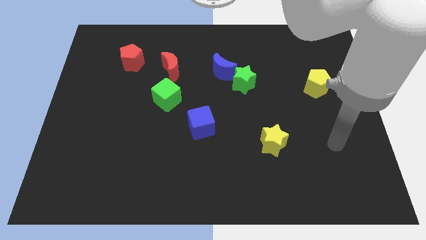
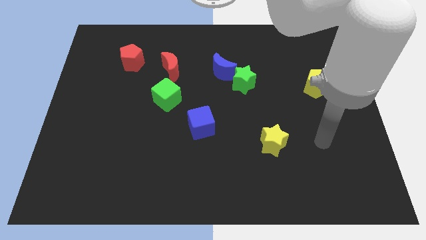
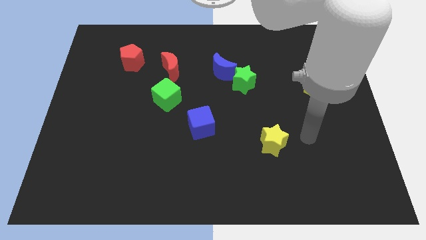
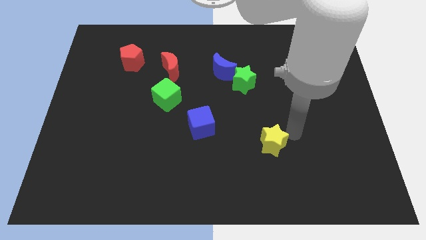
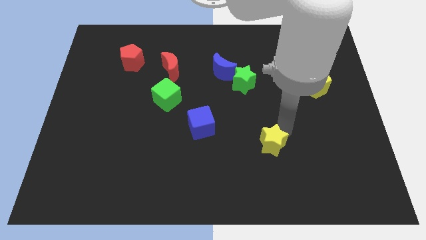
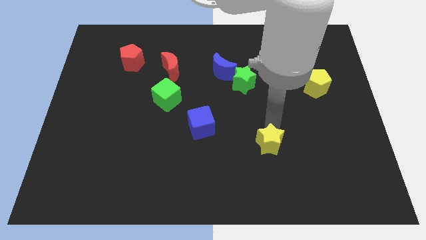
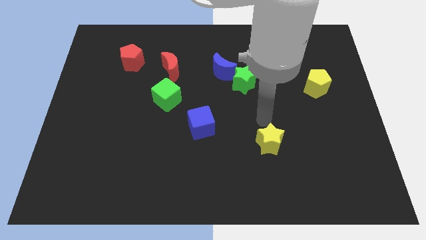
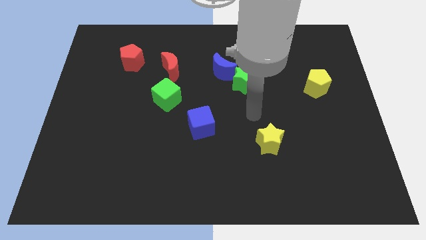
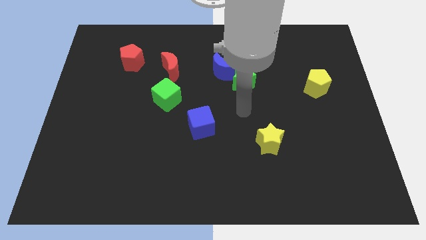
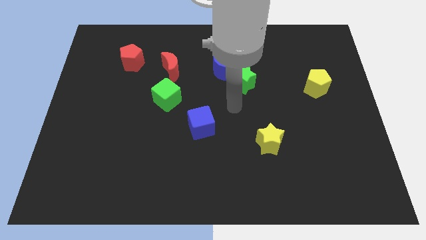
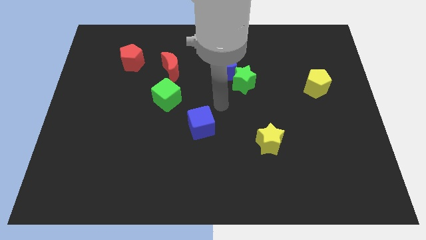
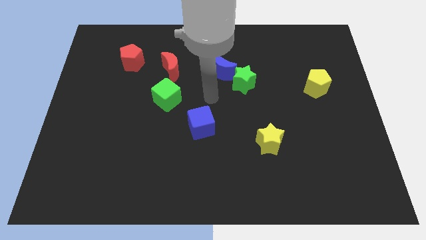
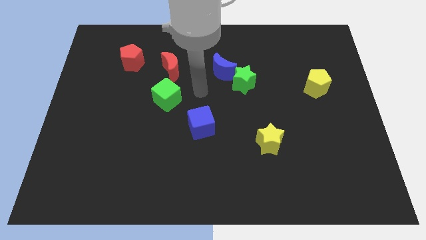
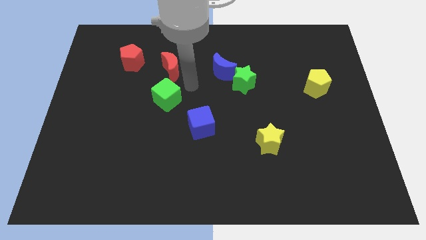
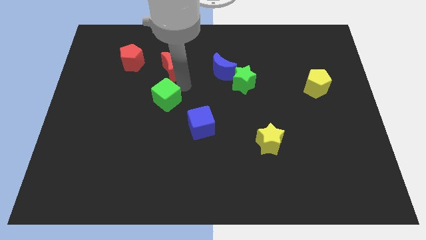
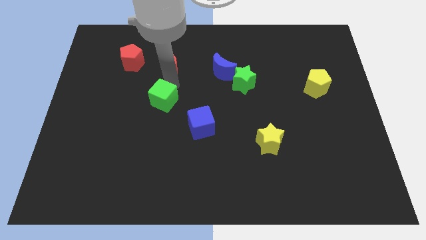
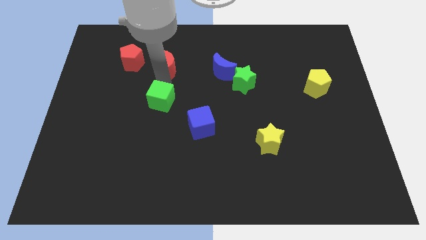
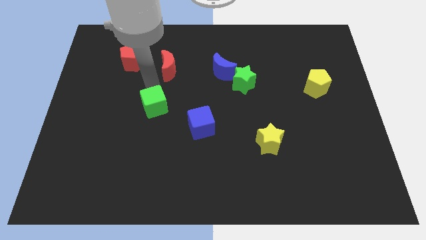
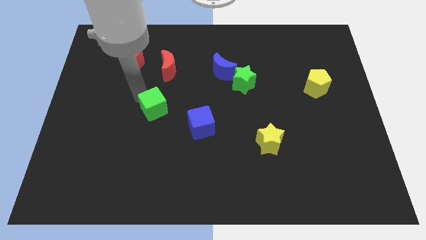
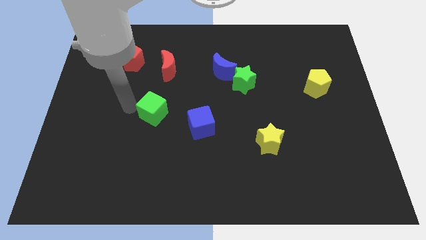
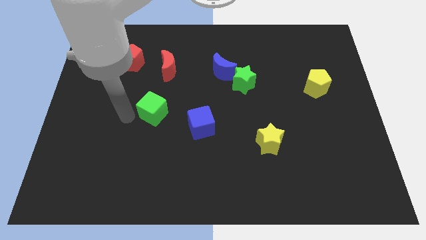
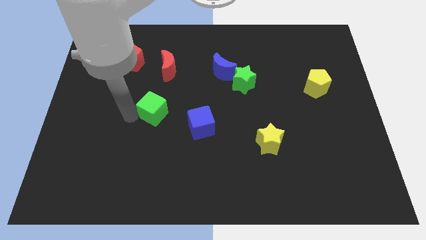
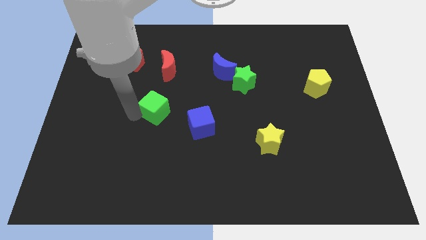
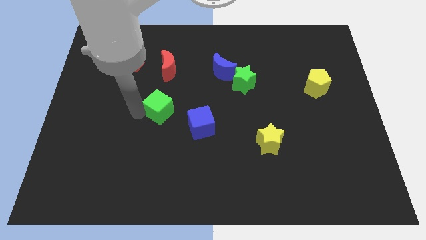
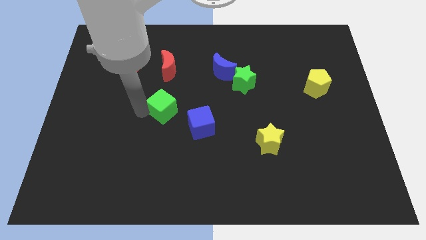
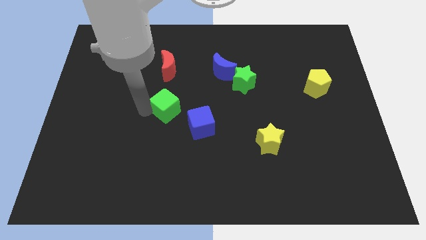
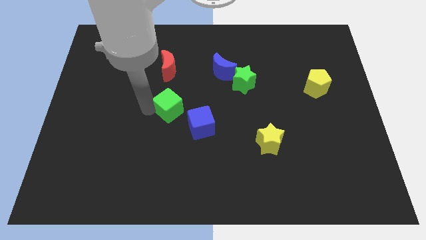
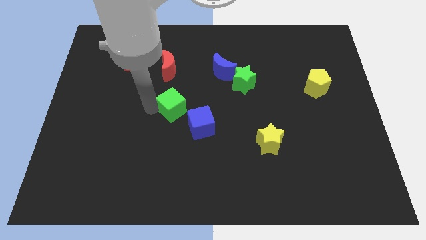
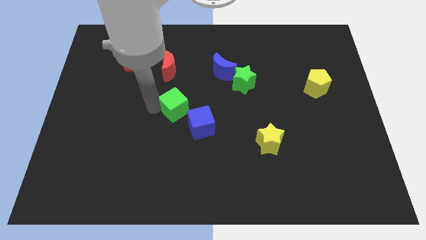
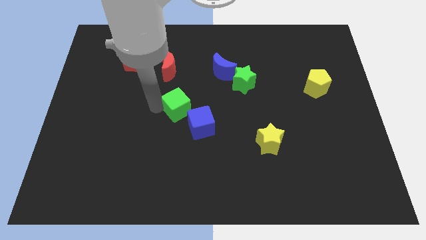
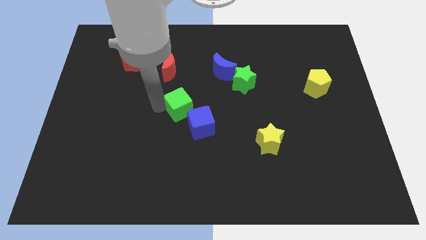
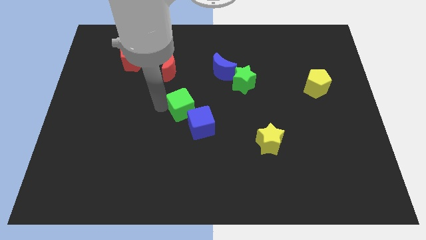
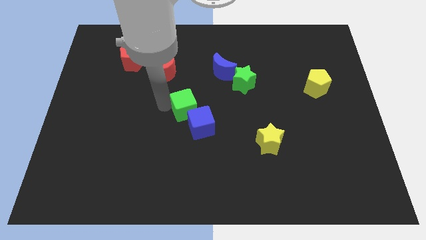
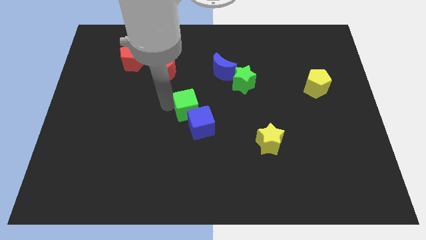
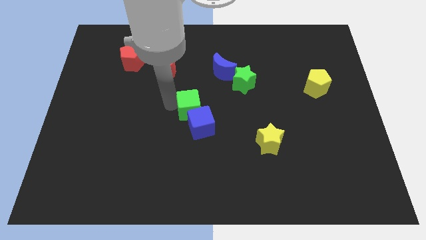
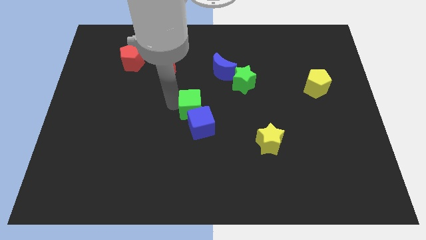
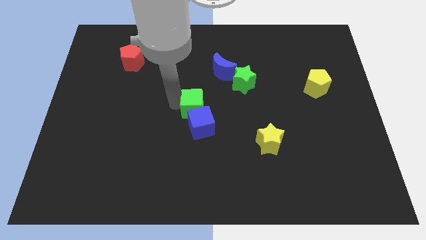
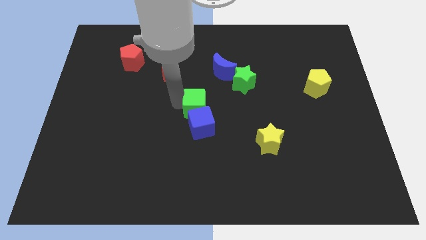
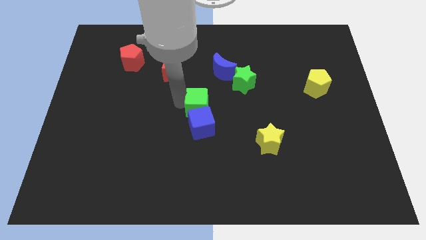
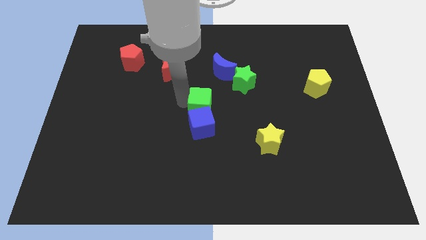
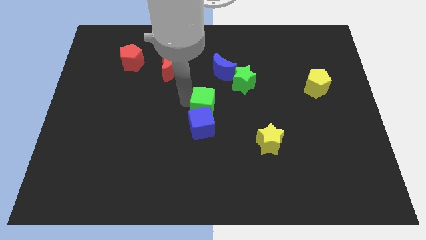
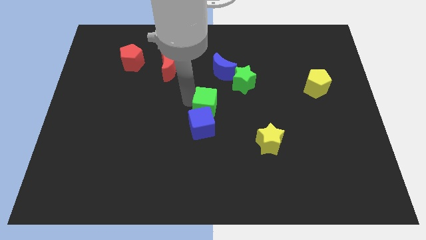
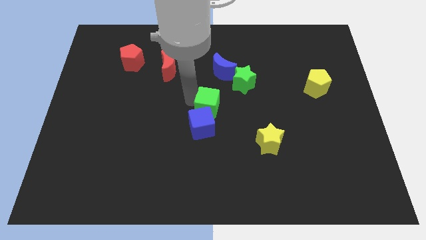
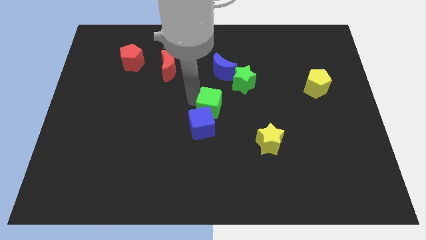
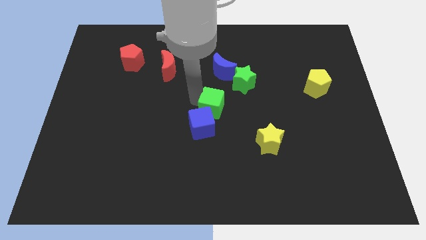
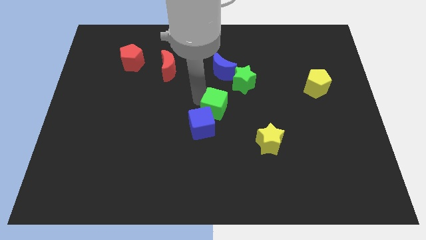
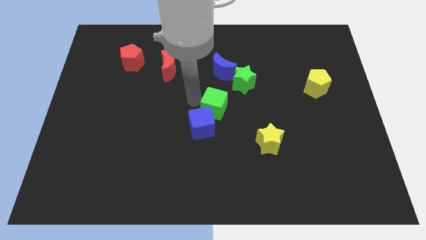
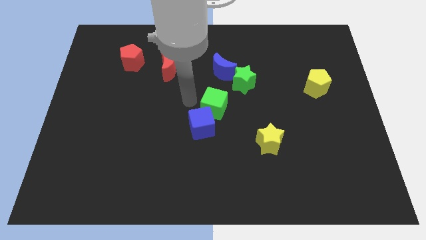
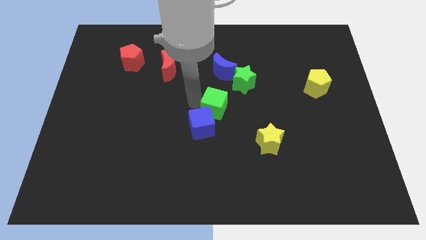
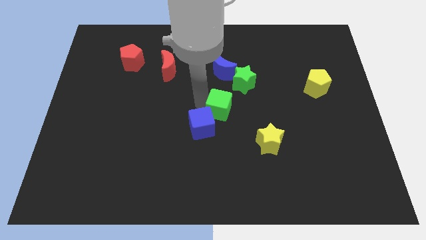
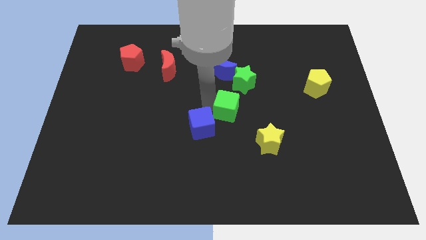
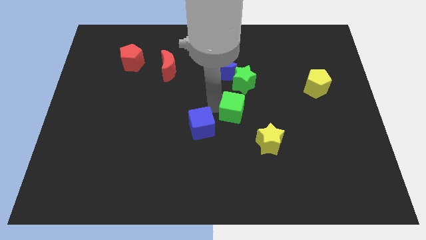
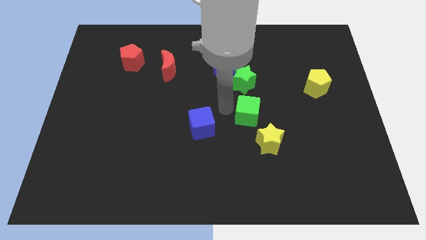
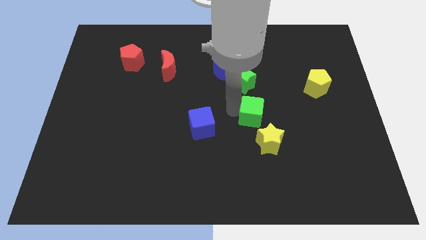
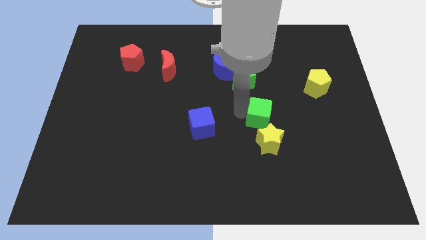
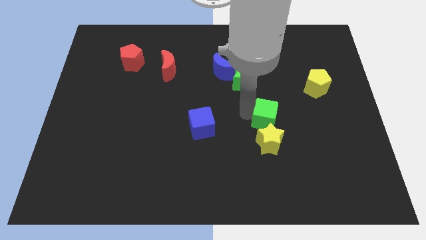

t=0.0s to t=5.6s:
push the green cube to the top right of the yellow star

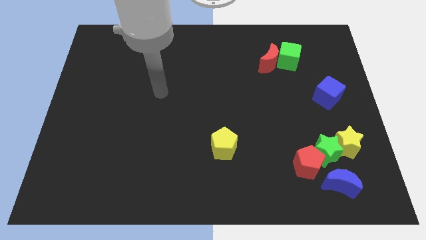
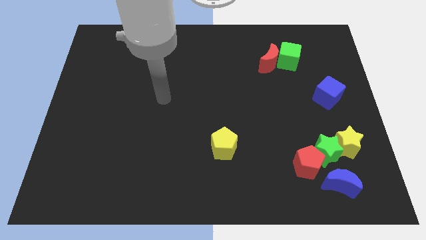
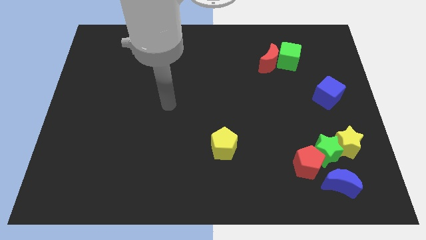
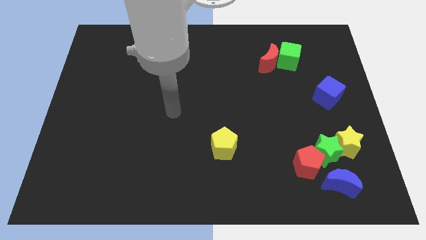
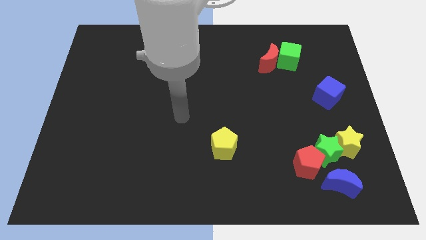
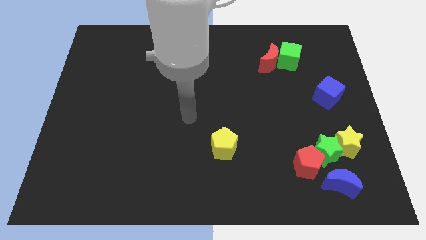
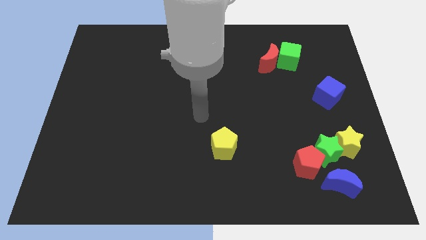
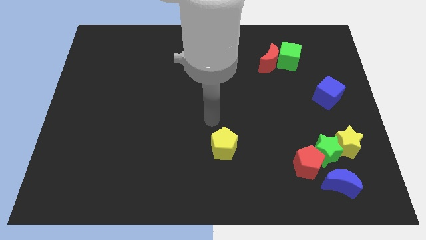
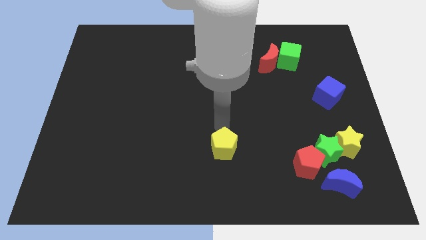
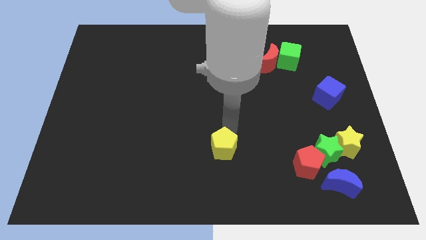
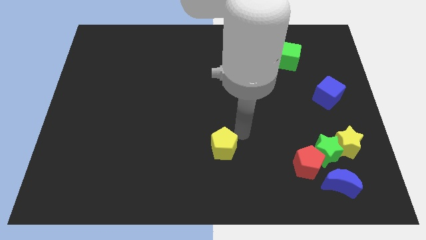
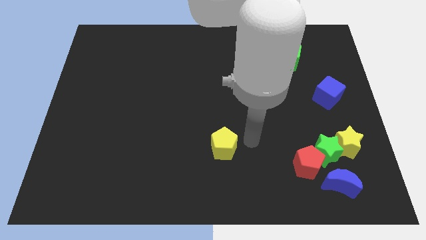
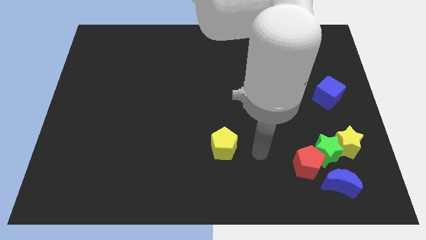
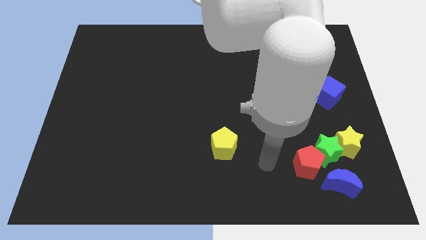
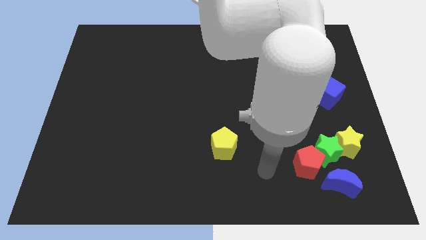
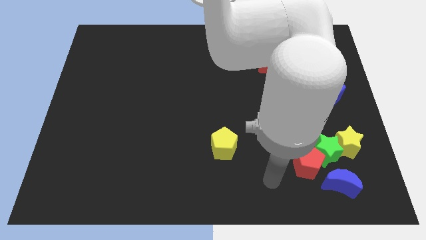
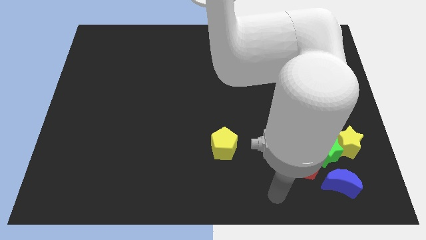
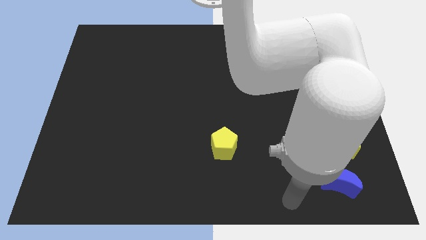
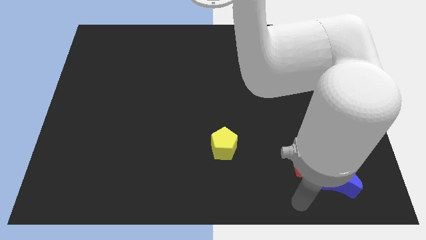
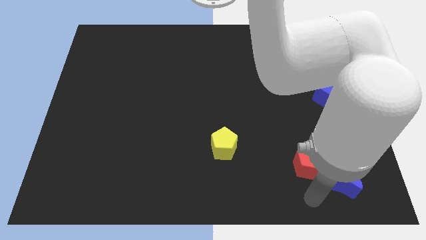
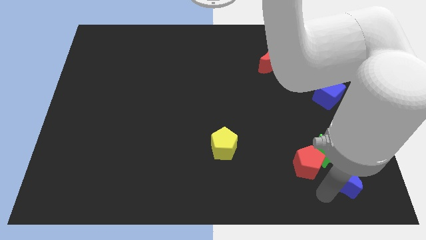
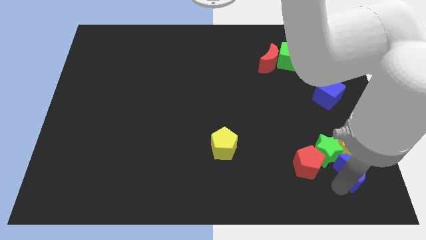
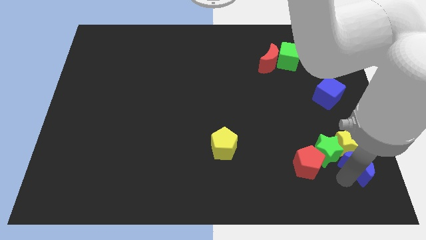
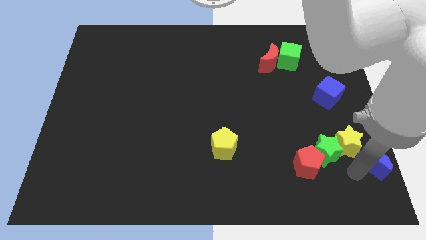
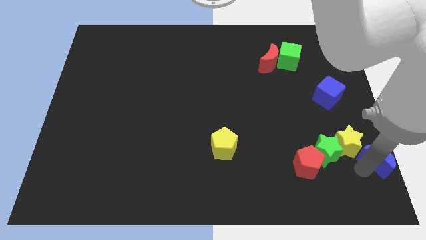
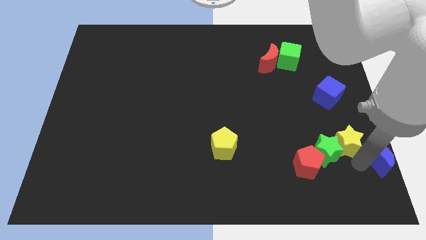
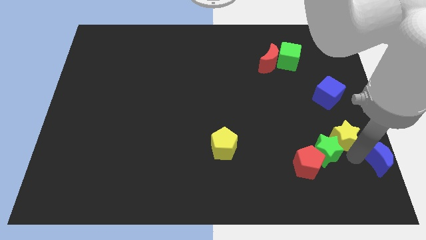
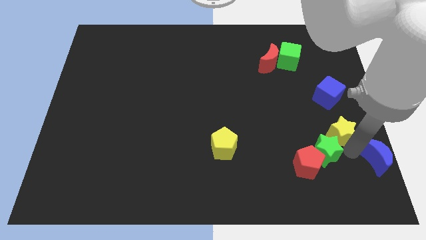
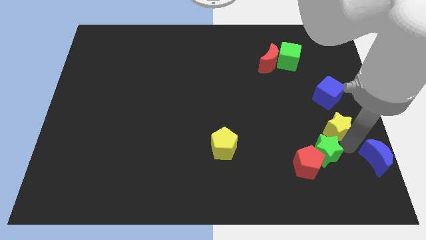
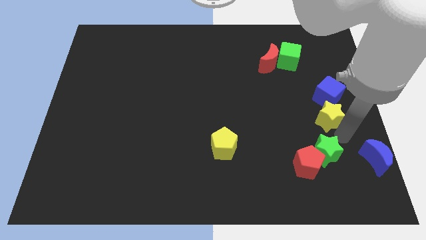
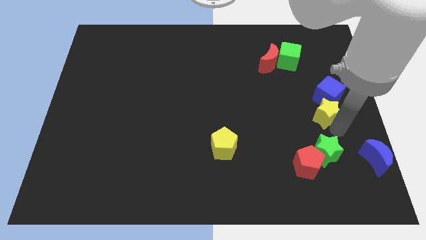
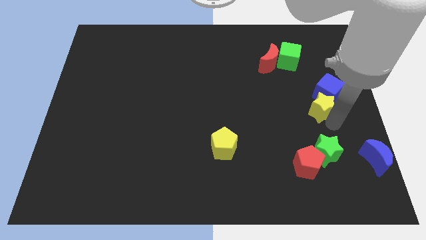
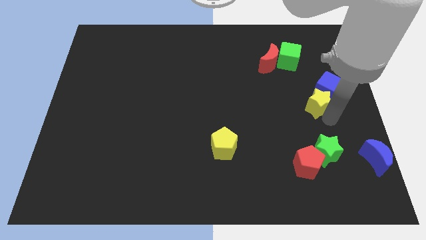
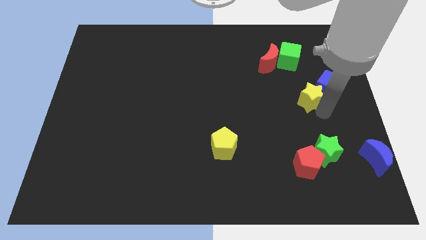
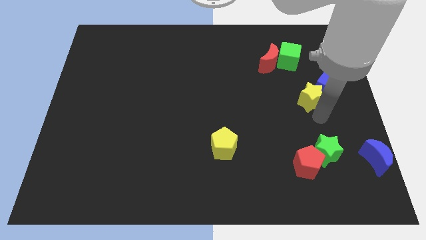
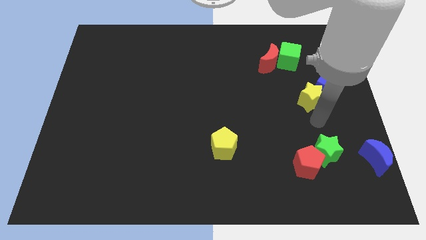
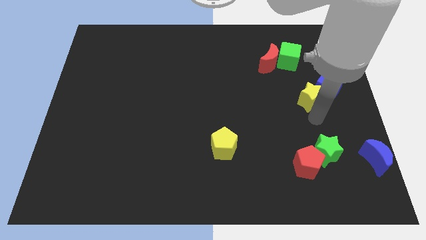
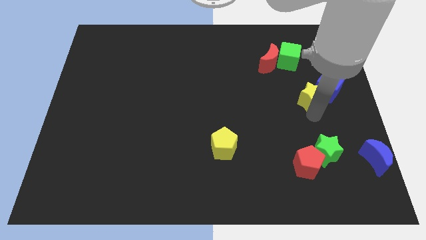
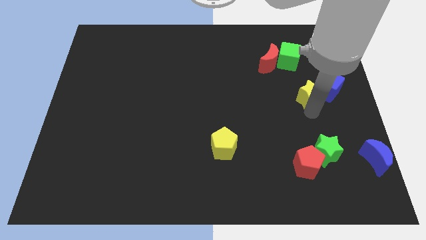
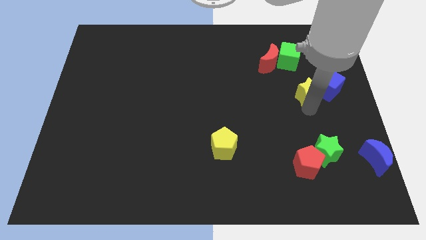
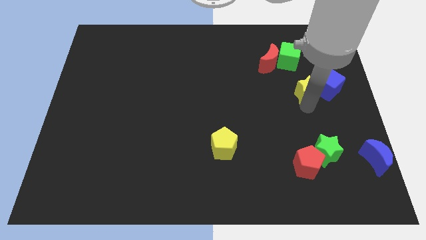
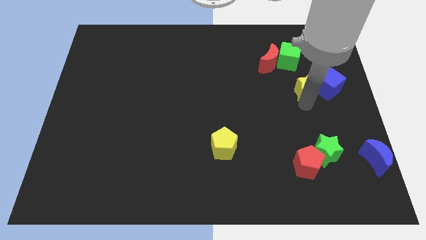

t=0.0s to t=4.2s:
push the yellow star to the top left side of the blue cube
